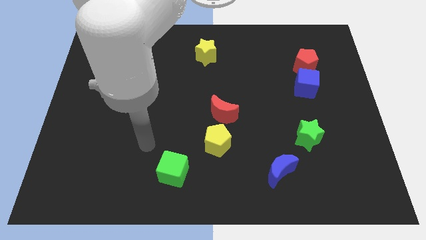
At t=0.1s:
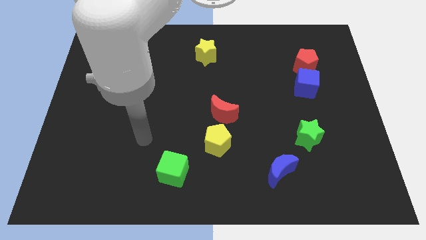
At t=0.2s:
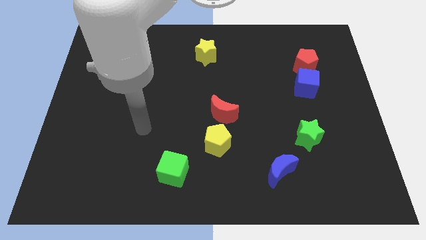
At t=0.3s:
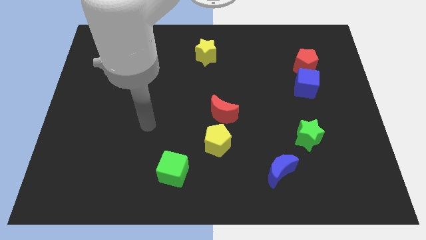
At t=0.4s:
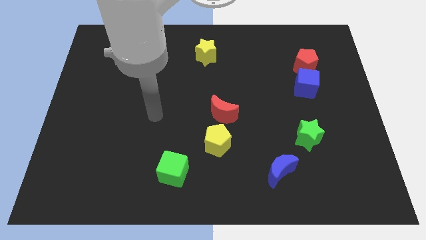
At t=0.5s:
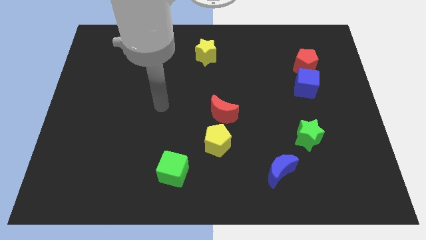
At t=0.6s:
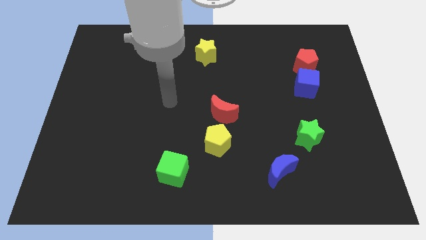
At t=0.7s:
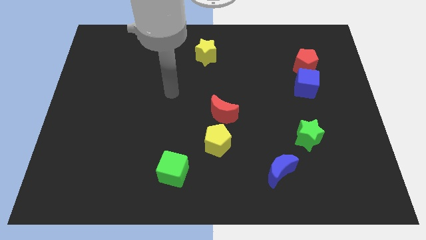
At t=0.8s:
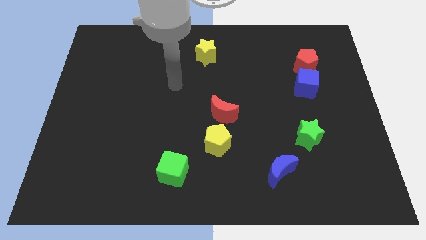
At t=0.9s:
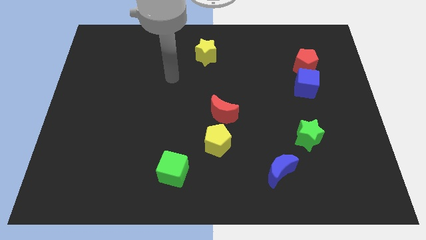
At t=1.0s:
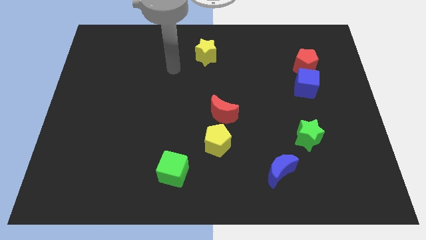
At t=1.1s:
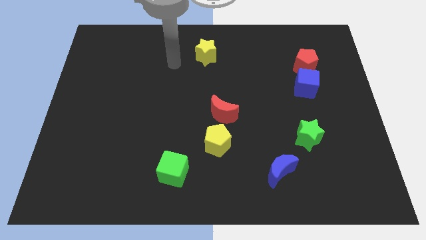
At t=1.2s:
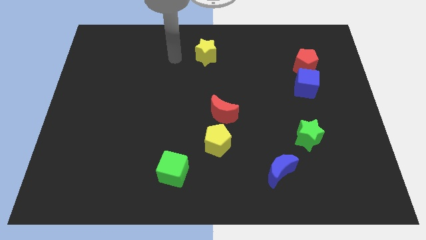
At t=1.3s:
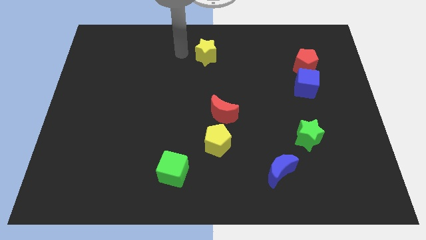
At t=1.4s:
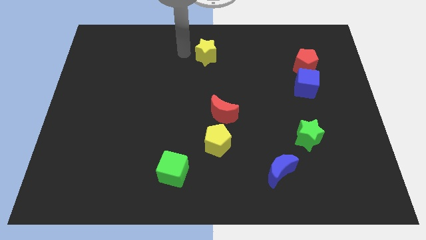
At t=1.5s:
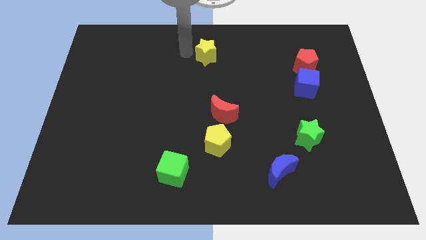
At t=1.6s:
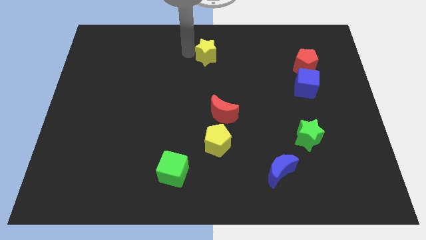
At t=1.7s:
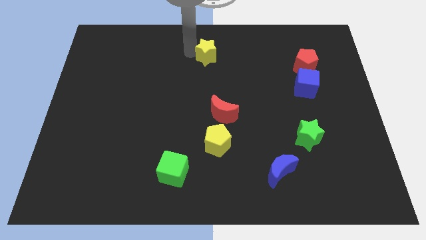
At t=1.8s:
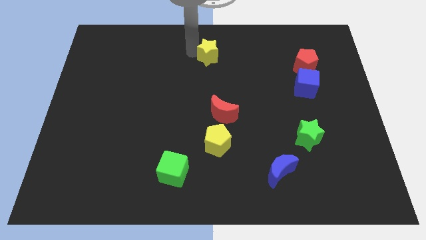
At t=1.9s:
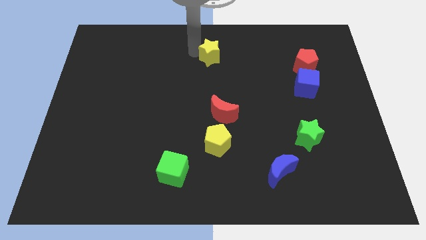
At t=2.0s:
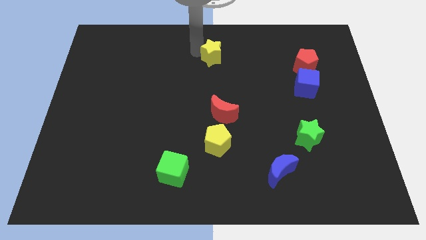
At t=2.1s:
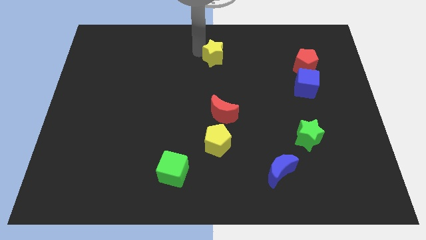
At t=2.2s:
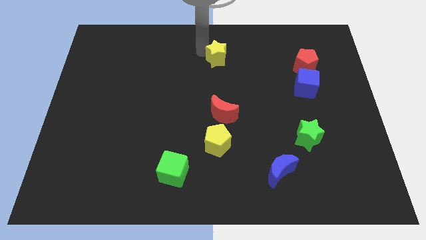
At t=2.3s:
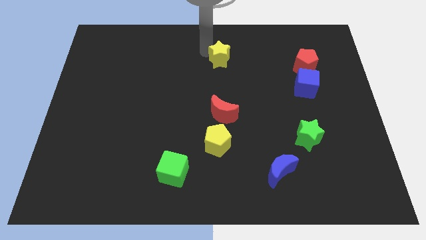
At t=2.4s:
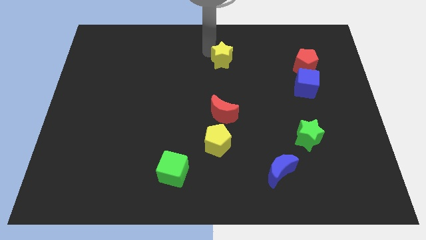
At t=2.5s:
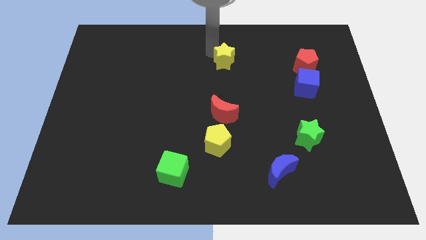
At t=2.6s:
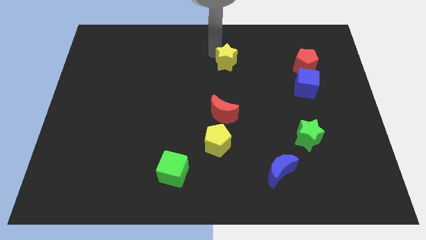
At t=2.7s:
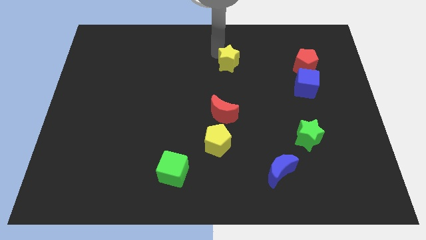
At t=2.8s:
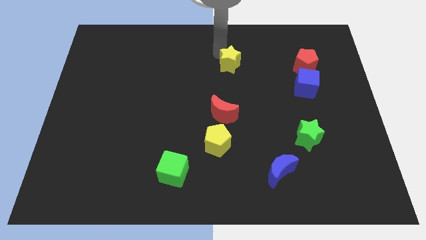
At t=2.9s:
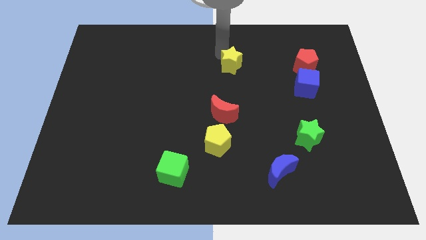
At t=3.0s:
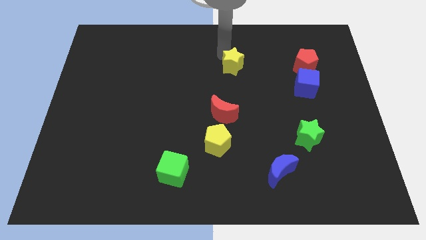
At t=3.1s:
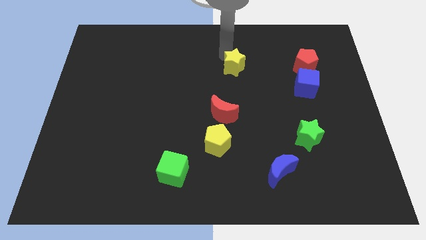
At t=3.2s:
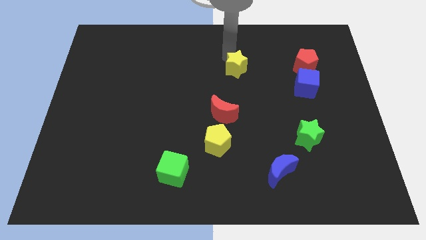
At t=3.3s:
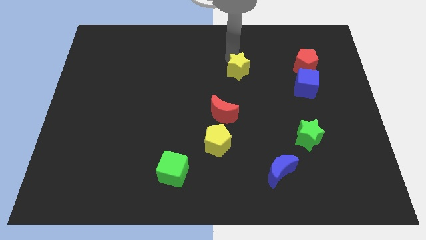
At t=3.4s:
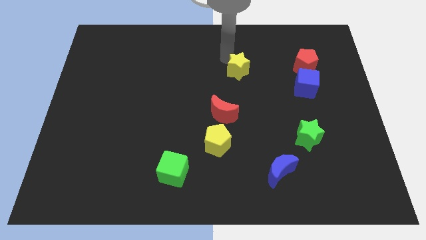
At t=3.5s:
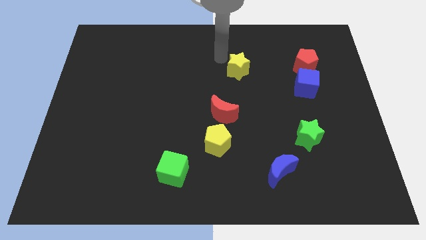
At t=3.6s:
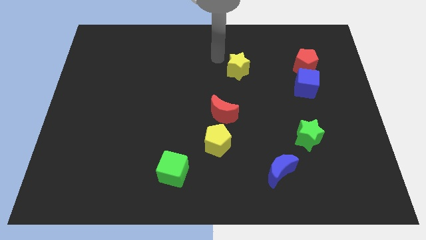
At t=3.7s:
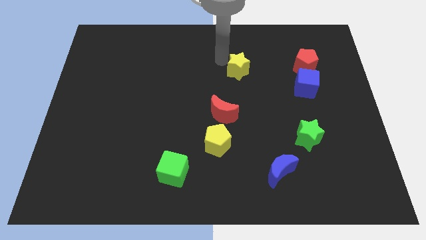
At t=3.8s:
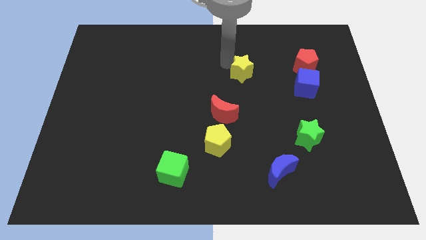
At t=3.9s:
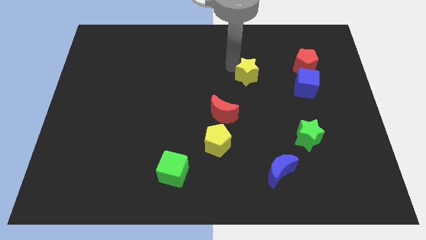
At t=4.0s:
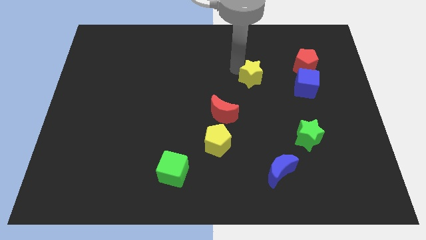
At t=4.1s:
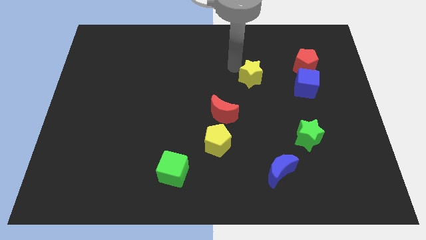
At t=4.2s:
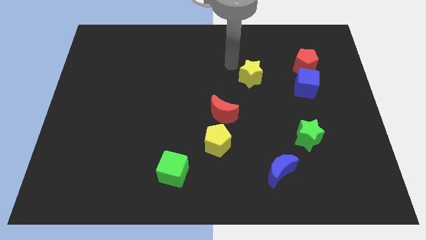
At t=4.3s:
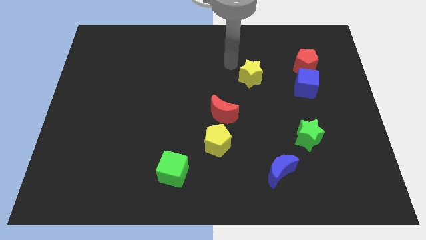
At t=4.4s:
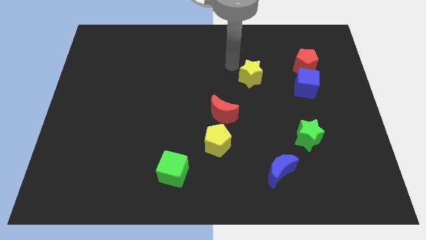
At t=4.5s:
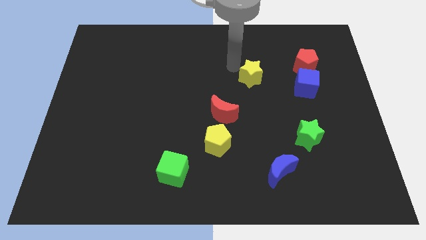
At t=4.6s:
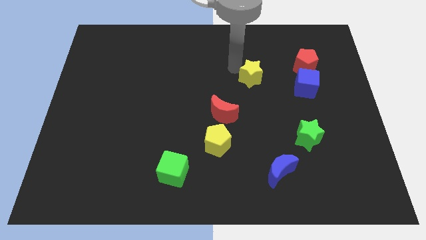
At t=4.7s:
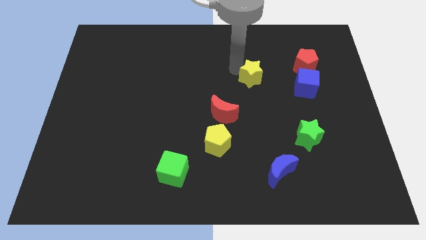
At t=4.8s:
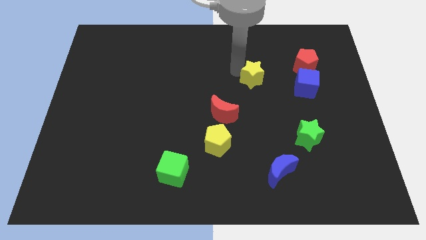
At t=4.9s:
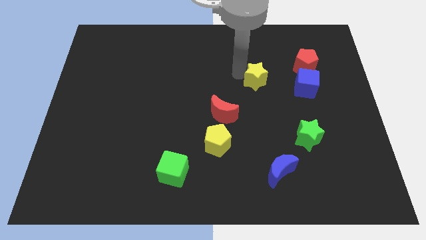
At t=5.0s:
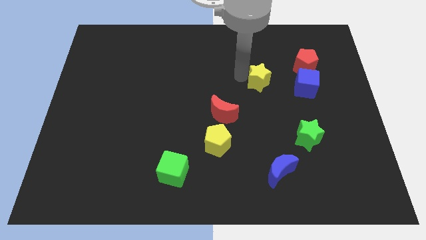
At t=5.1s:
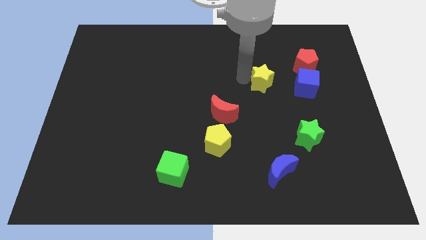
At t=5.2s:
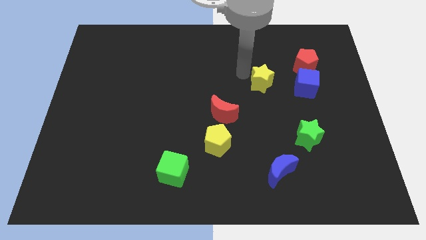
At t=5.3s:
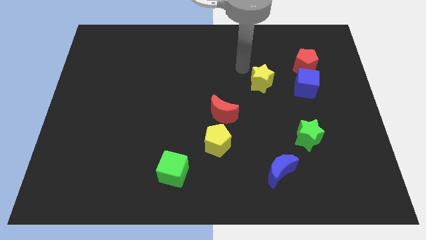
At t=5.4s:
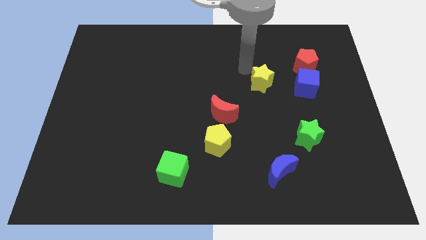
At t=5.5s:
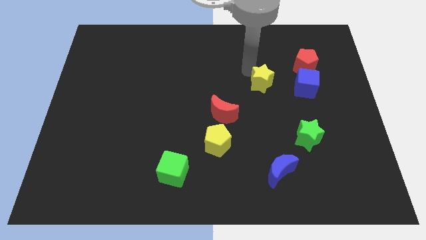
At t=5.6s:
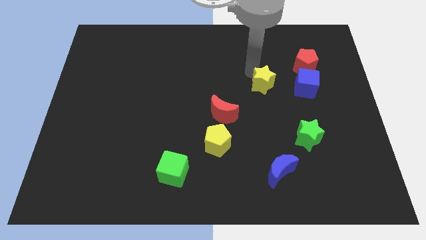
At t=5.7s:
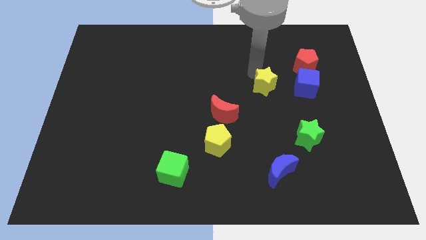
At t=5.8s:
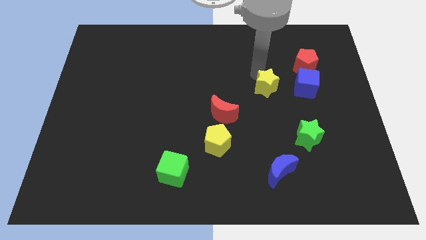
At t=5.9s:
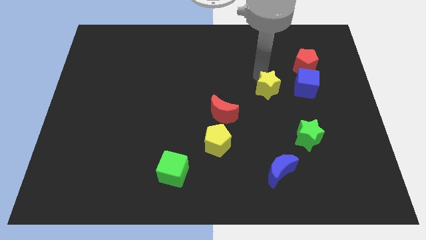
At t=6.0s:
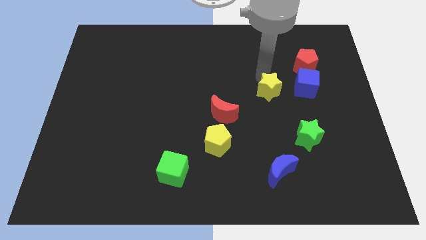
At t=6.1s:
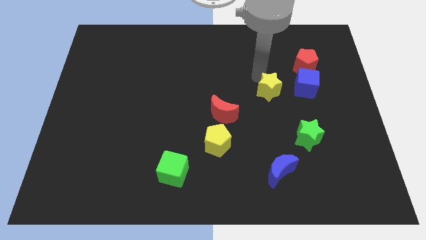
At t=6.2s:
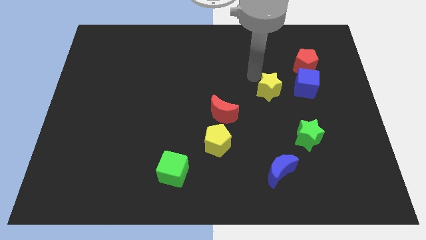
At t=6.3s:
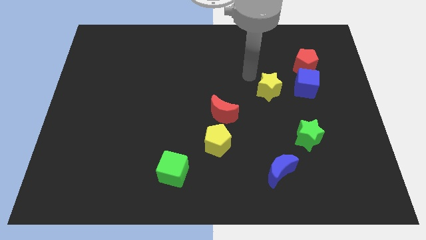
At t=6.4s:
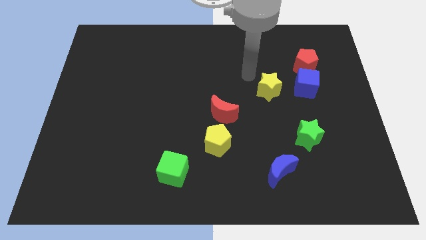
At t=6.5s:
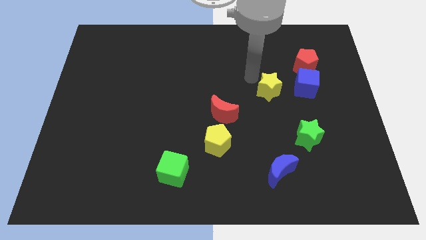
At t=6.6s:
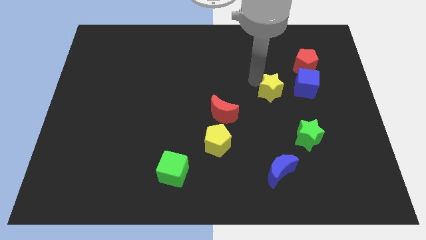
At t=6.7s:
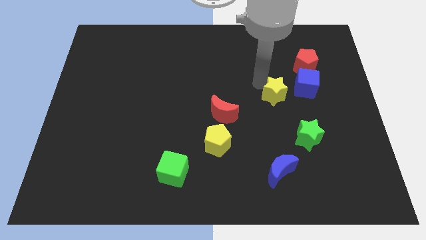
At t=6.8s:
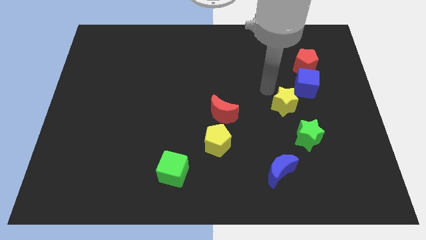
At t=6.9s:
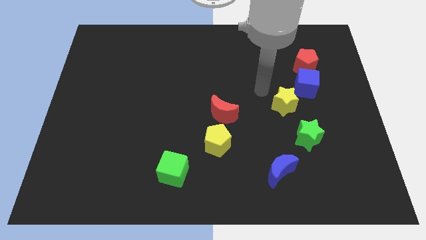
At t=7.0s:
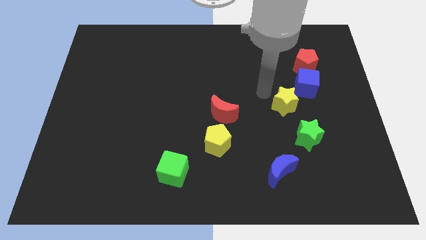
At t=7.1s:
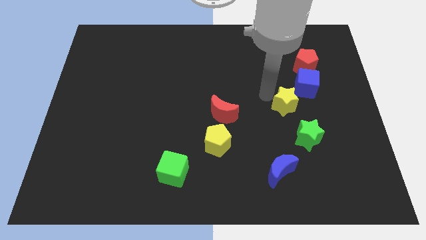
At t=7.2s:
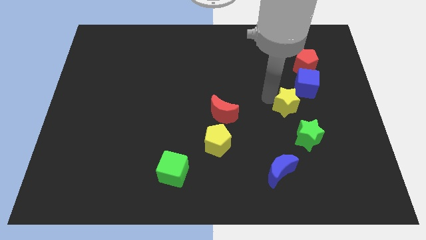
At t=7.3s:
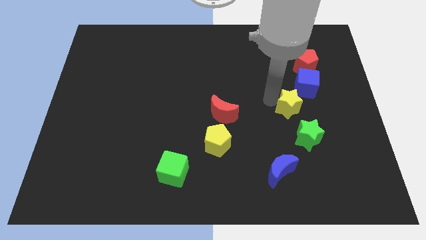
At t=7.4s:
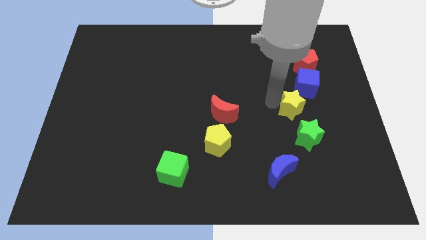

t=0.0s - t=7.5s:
slide the yellow star below the blue cube

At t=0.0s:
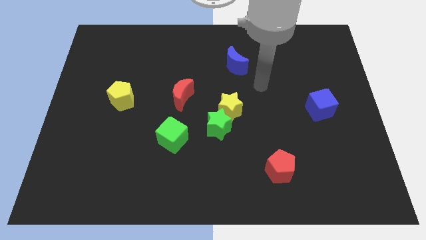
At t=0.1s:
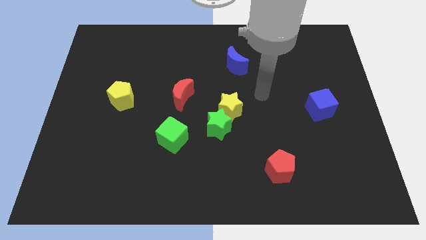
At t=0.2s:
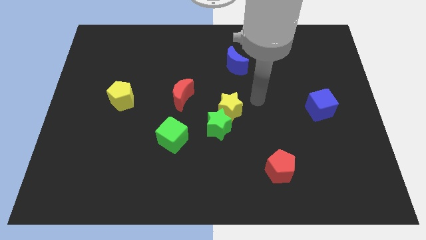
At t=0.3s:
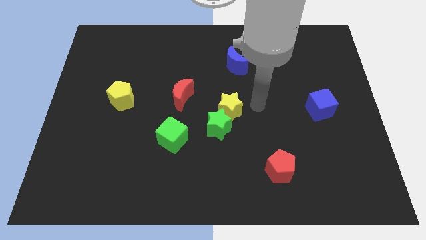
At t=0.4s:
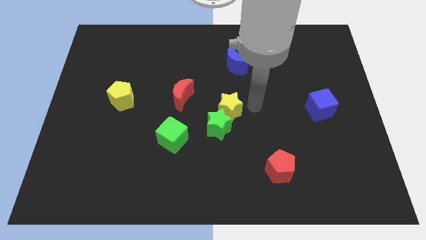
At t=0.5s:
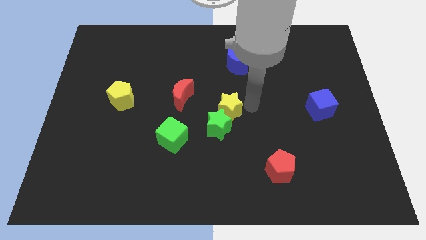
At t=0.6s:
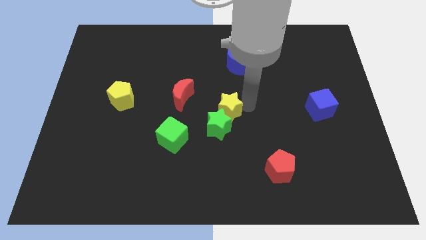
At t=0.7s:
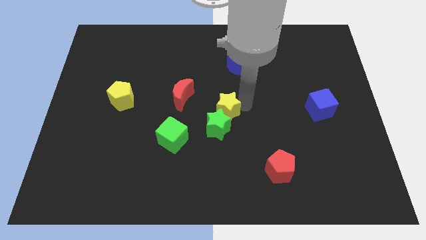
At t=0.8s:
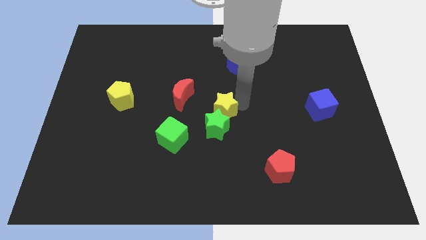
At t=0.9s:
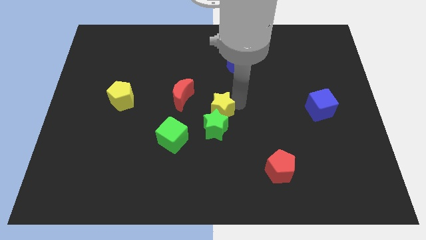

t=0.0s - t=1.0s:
push the yellow star to the bottom right side of the red moon
